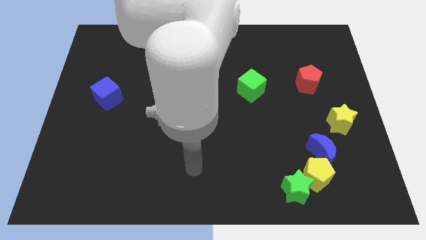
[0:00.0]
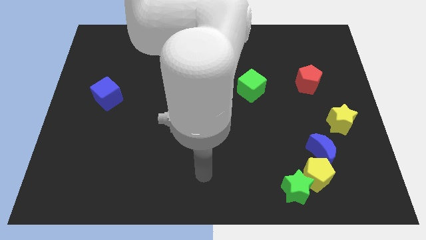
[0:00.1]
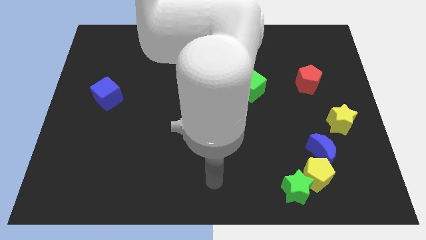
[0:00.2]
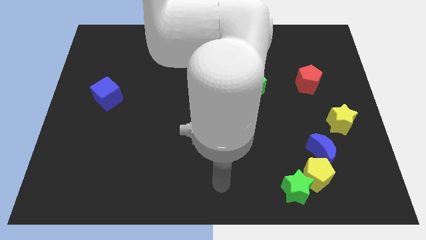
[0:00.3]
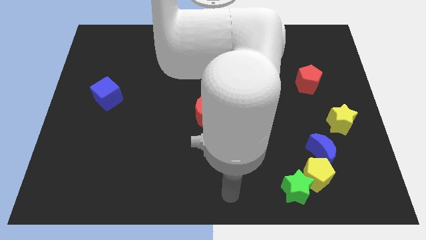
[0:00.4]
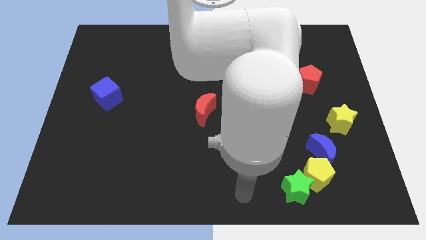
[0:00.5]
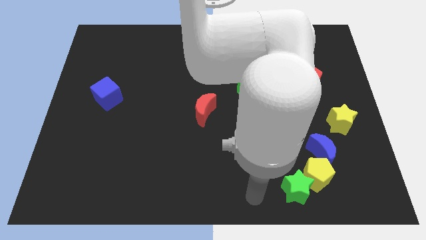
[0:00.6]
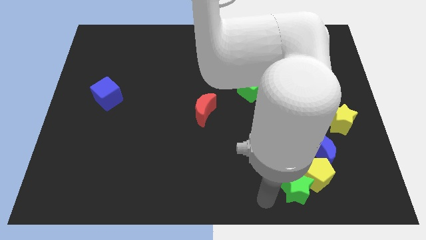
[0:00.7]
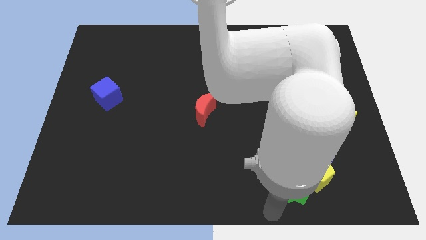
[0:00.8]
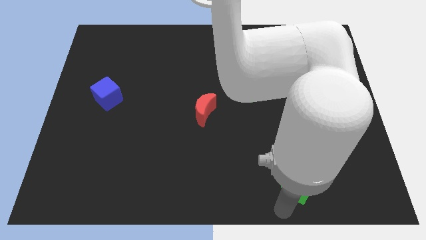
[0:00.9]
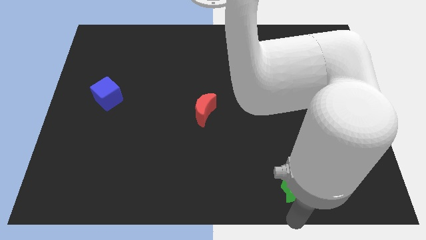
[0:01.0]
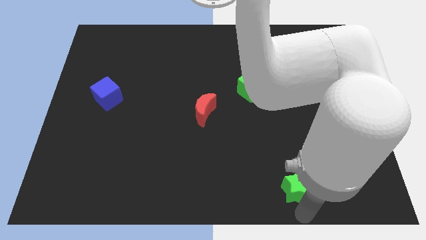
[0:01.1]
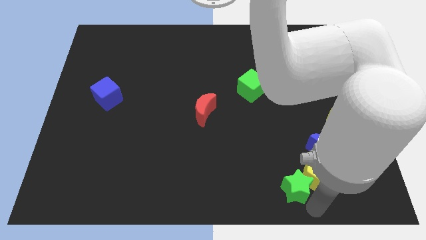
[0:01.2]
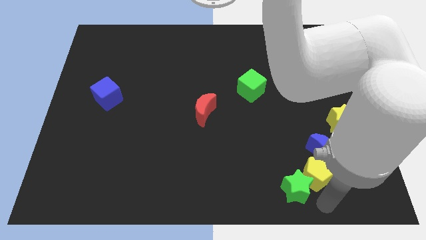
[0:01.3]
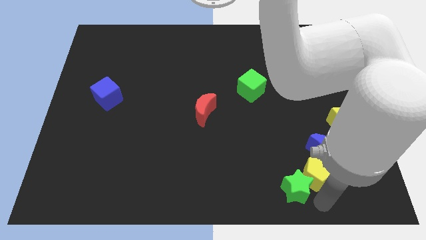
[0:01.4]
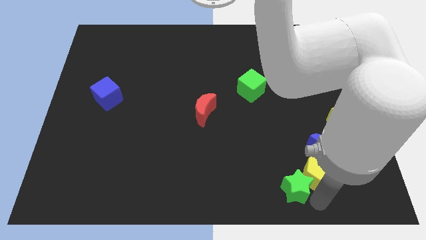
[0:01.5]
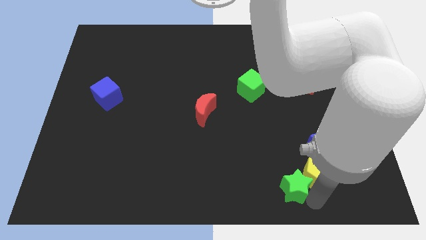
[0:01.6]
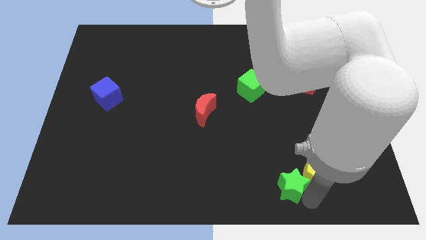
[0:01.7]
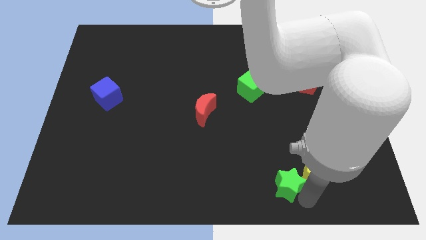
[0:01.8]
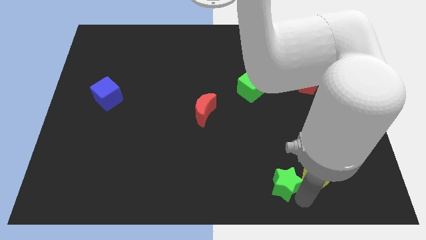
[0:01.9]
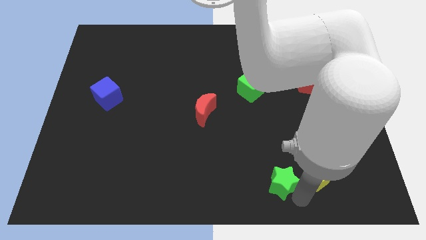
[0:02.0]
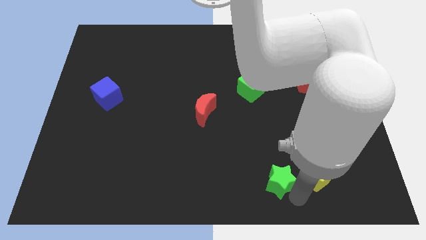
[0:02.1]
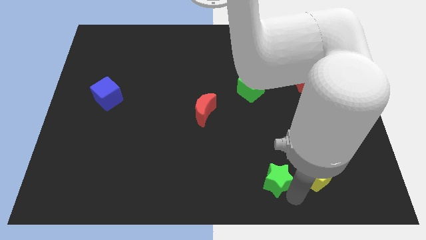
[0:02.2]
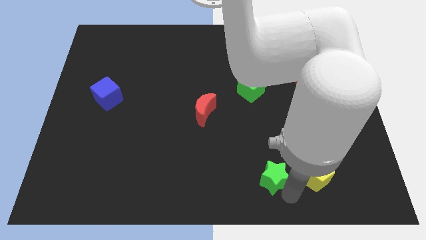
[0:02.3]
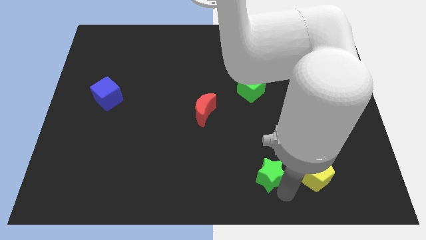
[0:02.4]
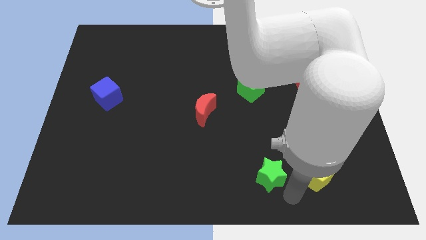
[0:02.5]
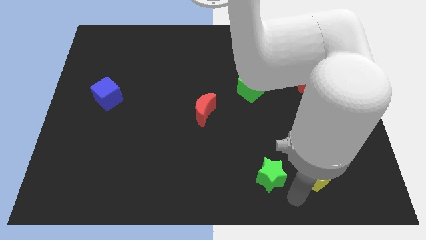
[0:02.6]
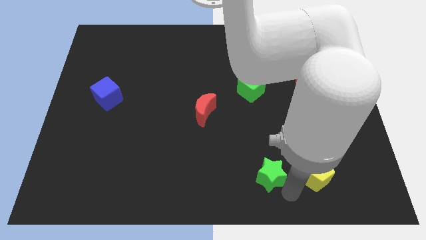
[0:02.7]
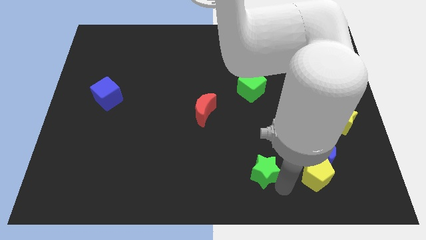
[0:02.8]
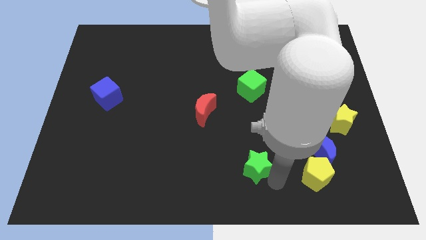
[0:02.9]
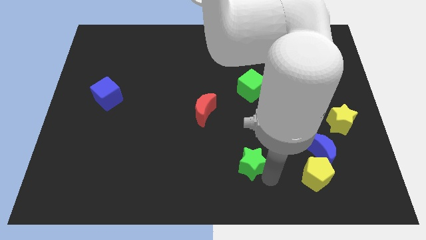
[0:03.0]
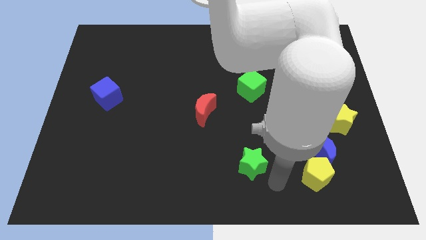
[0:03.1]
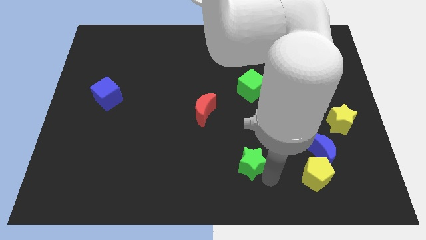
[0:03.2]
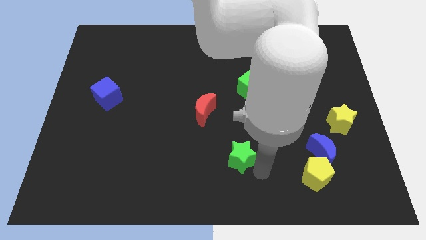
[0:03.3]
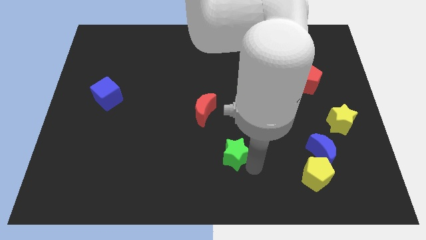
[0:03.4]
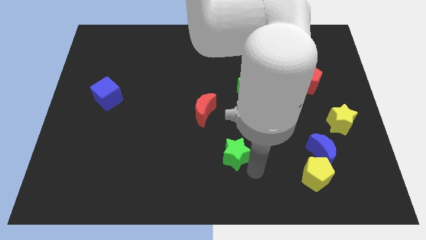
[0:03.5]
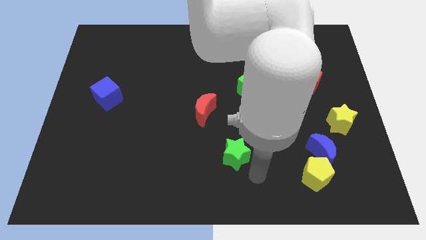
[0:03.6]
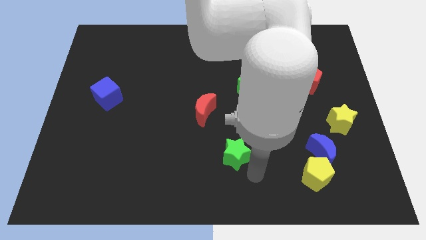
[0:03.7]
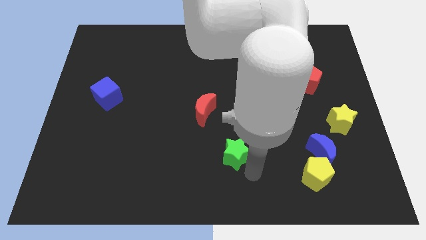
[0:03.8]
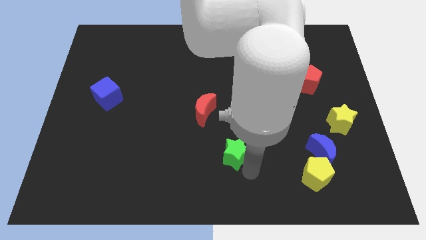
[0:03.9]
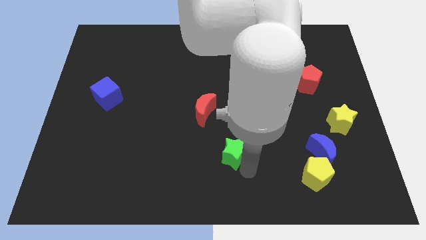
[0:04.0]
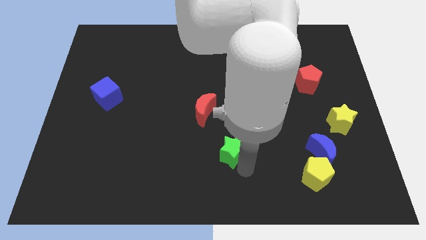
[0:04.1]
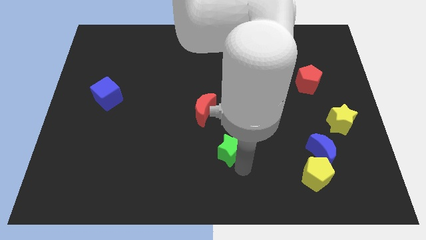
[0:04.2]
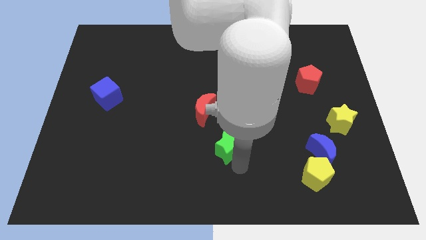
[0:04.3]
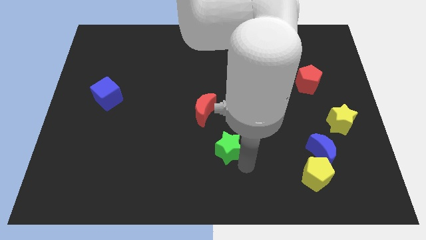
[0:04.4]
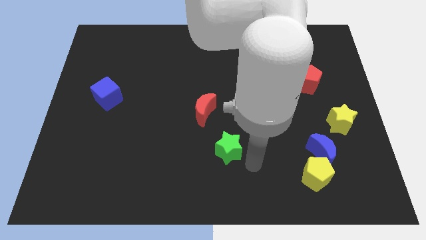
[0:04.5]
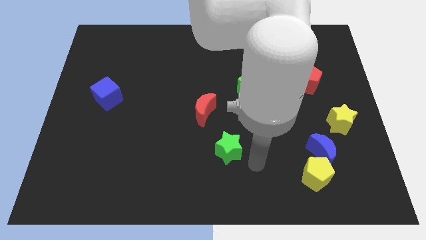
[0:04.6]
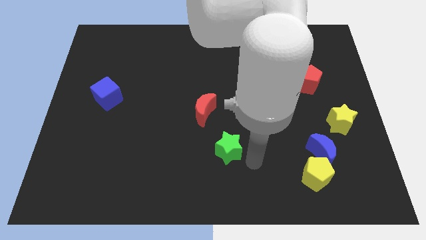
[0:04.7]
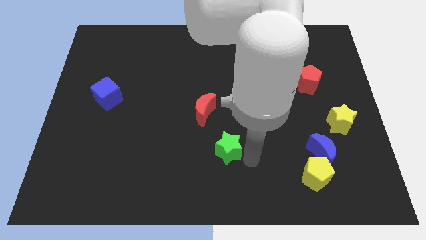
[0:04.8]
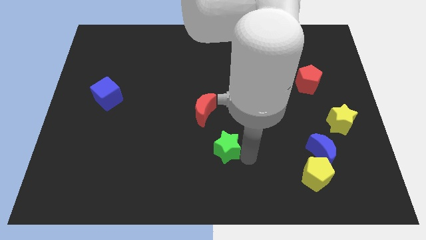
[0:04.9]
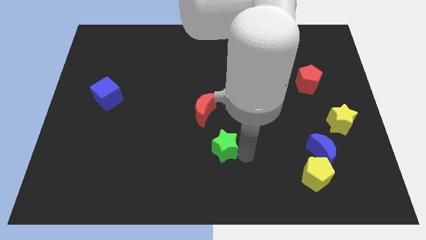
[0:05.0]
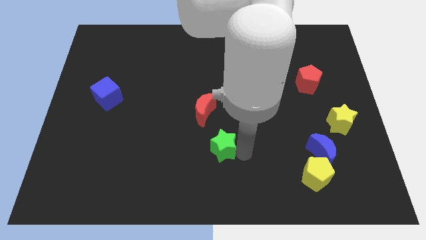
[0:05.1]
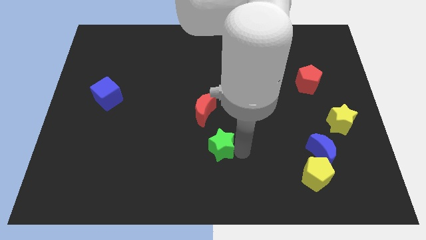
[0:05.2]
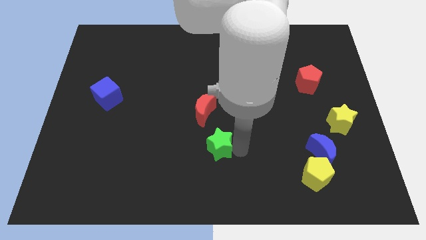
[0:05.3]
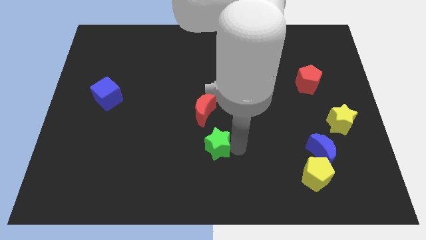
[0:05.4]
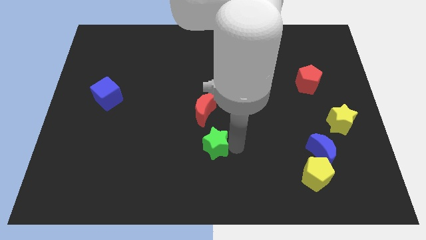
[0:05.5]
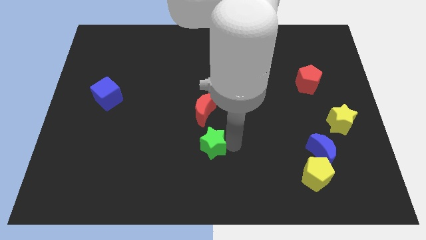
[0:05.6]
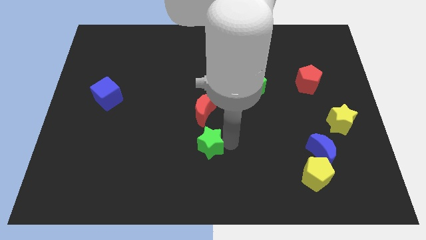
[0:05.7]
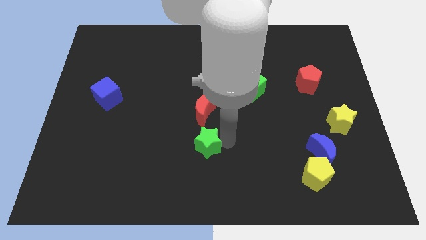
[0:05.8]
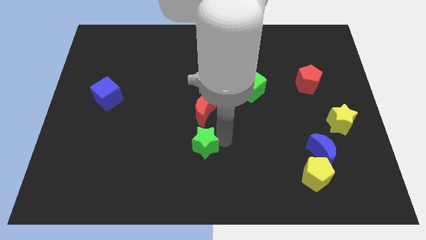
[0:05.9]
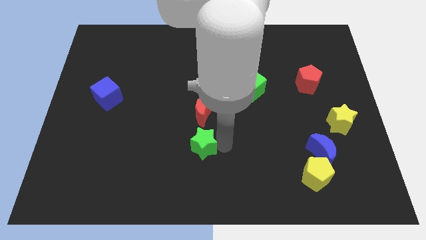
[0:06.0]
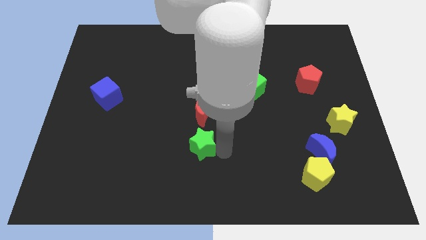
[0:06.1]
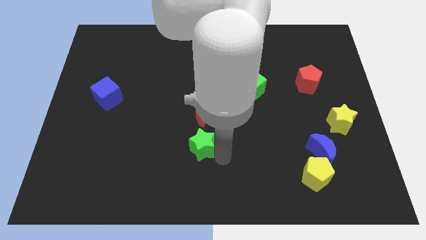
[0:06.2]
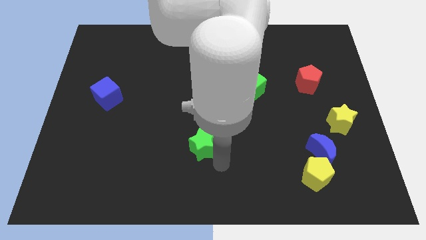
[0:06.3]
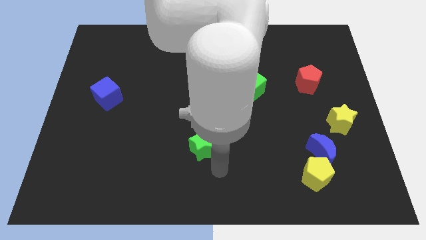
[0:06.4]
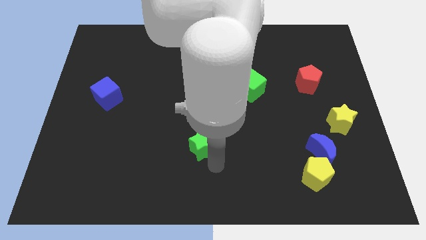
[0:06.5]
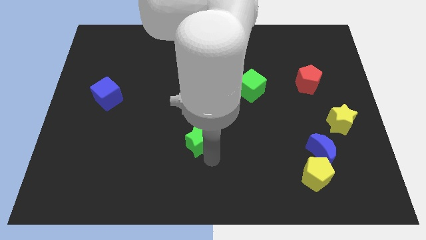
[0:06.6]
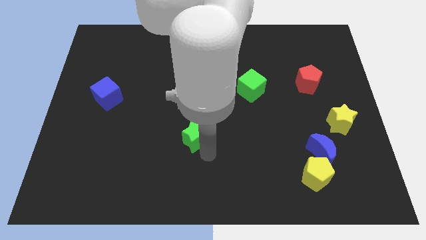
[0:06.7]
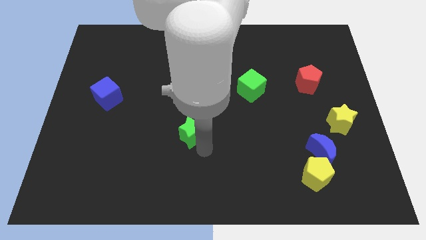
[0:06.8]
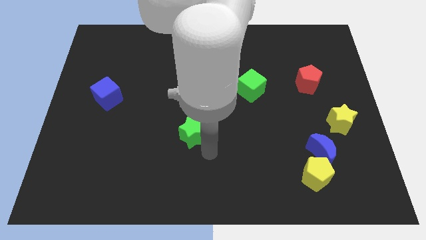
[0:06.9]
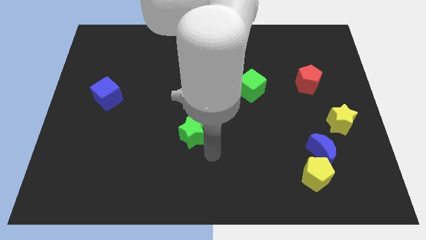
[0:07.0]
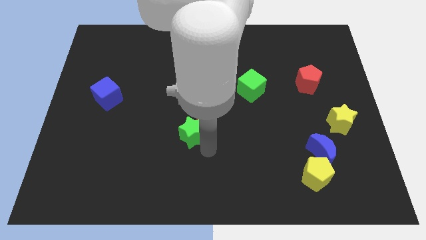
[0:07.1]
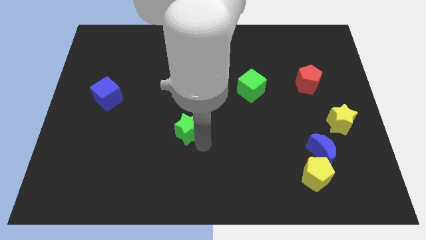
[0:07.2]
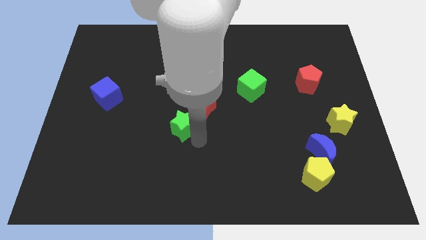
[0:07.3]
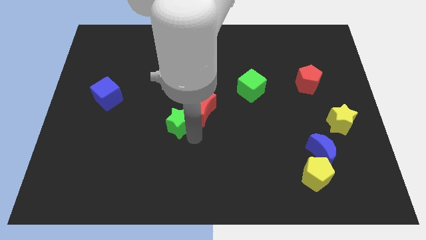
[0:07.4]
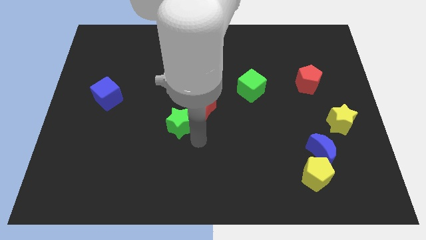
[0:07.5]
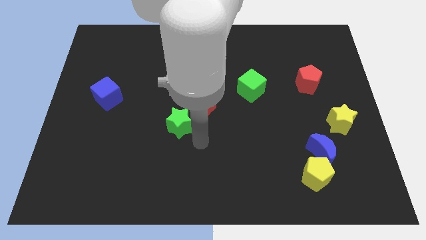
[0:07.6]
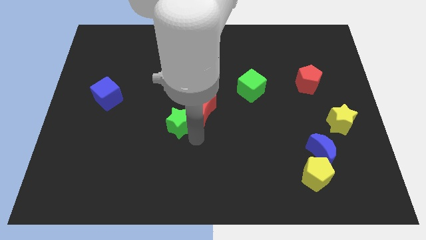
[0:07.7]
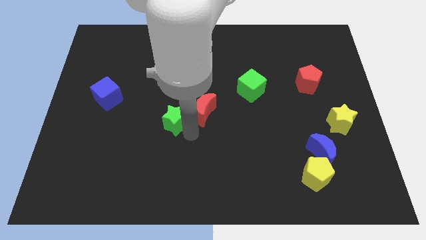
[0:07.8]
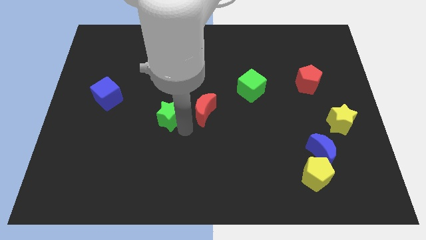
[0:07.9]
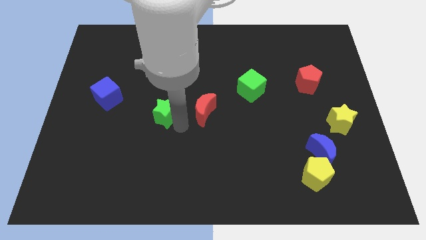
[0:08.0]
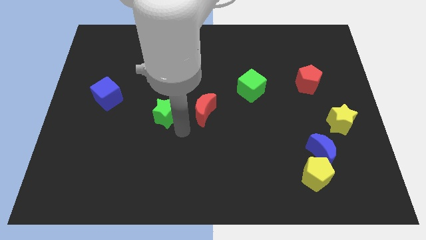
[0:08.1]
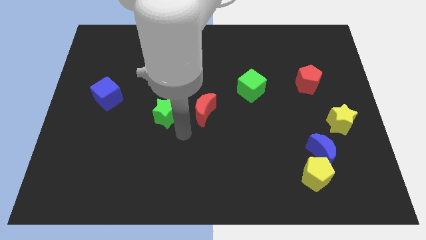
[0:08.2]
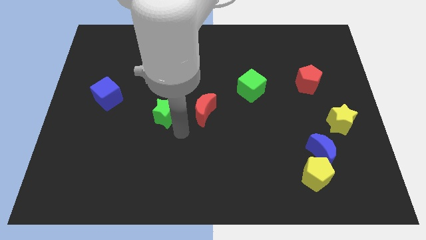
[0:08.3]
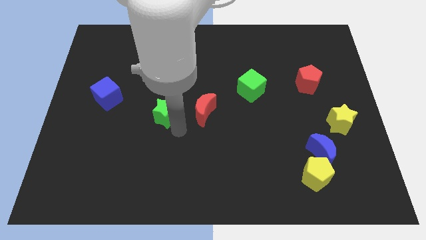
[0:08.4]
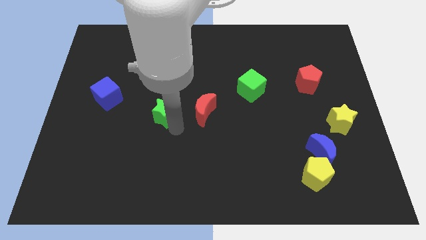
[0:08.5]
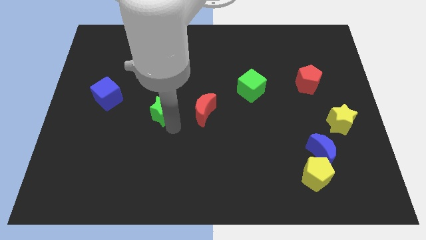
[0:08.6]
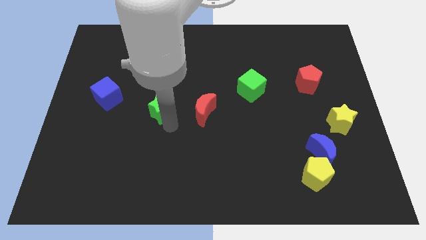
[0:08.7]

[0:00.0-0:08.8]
put the green star right of the blue cube
